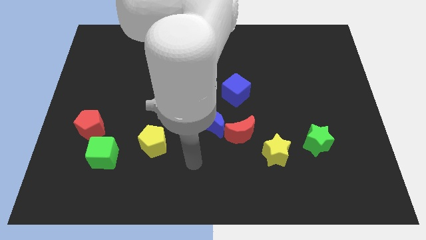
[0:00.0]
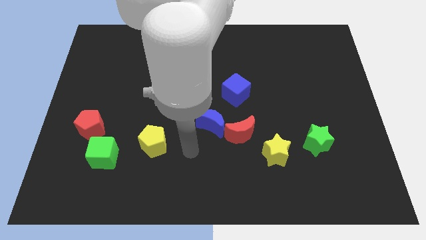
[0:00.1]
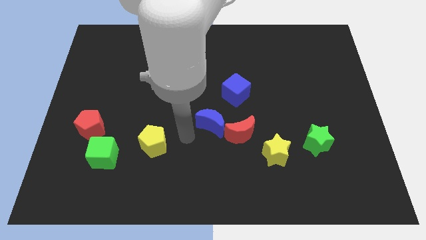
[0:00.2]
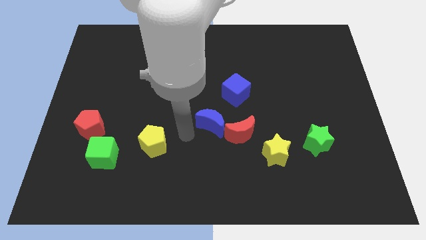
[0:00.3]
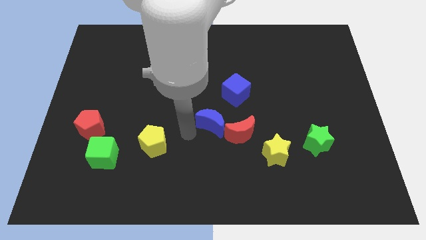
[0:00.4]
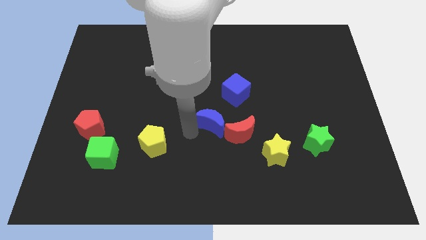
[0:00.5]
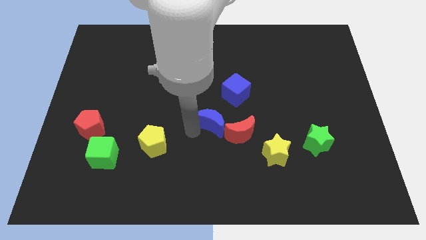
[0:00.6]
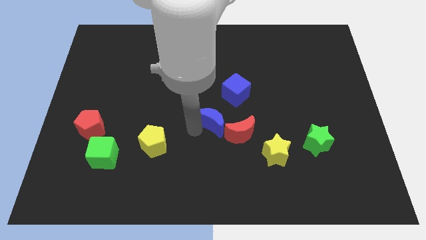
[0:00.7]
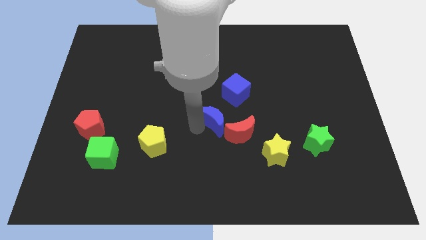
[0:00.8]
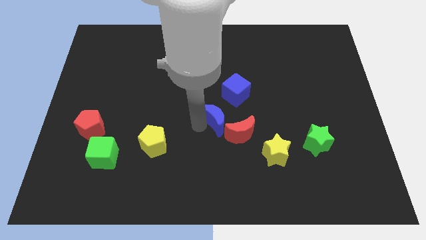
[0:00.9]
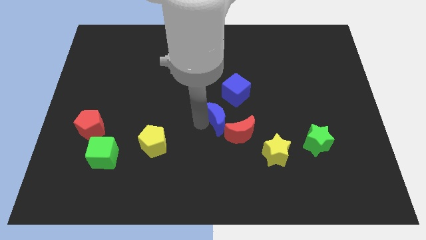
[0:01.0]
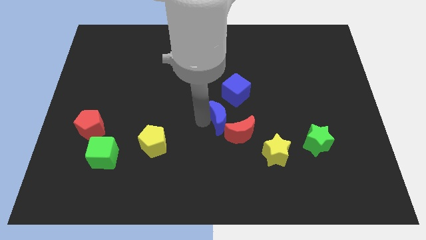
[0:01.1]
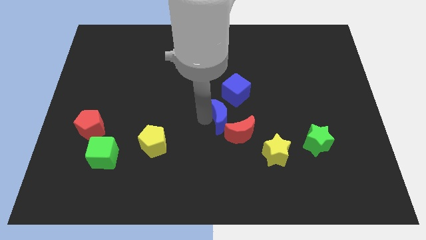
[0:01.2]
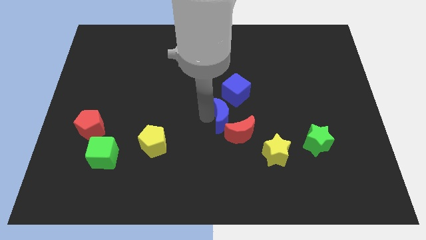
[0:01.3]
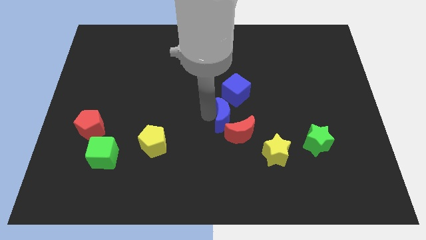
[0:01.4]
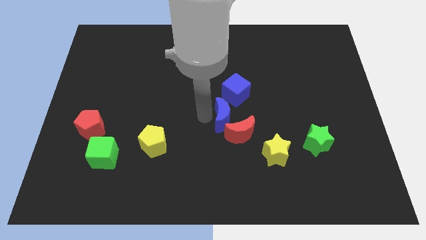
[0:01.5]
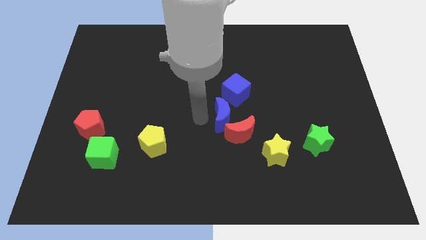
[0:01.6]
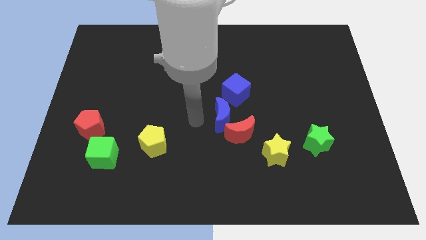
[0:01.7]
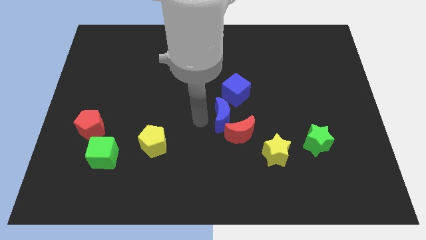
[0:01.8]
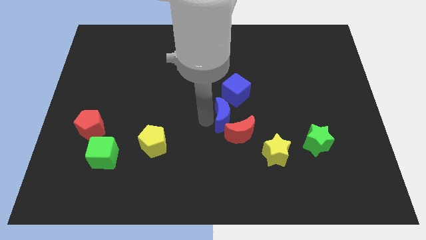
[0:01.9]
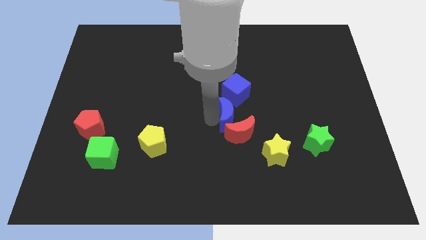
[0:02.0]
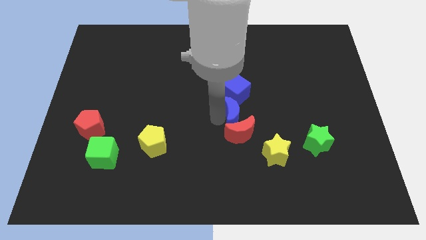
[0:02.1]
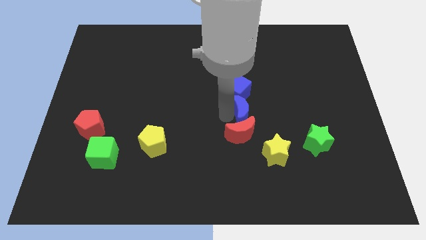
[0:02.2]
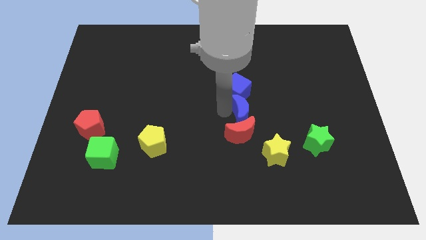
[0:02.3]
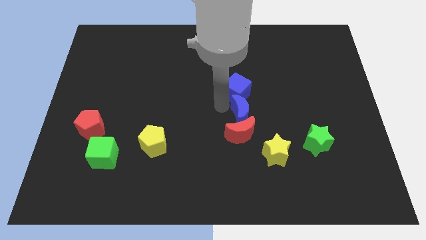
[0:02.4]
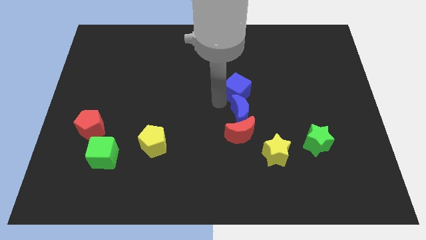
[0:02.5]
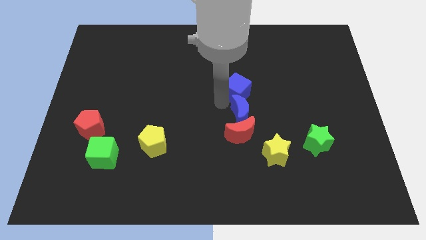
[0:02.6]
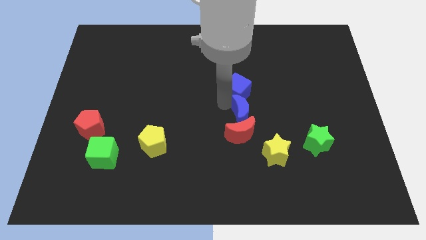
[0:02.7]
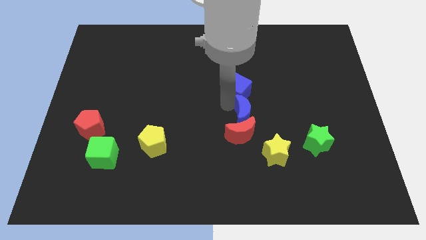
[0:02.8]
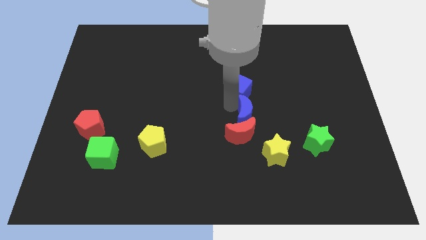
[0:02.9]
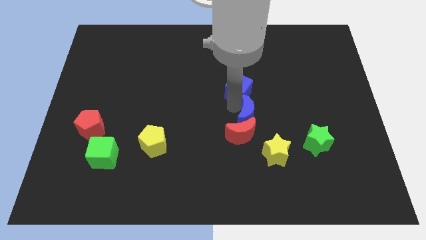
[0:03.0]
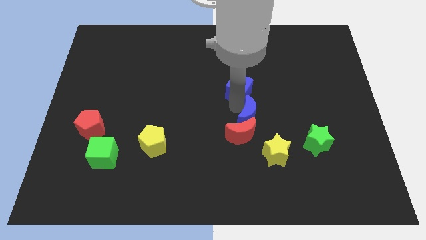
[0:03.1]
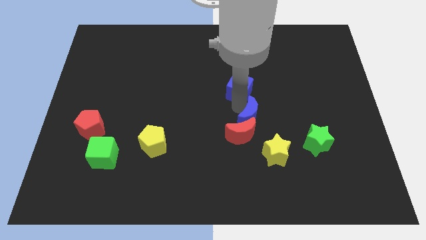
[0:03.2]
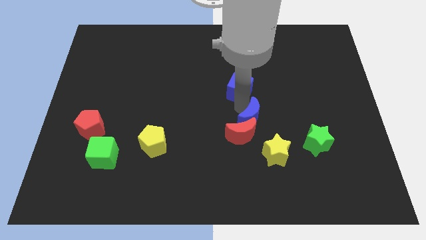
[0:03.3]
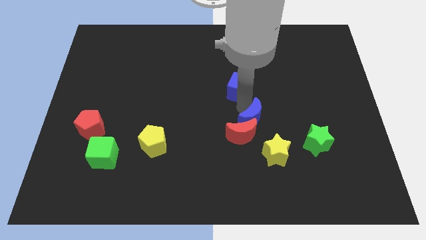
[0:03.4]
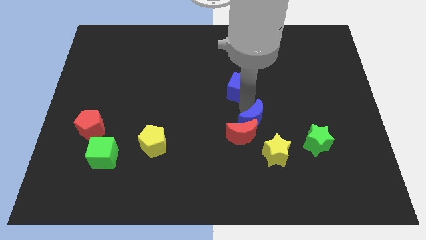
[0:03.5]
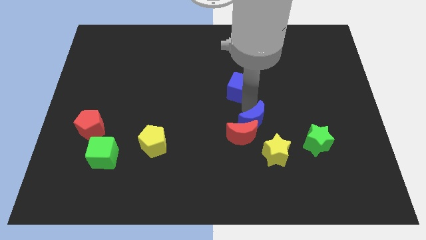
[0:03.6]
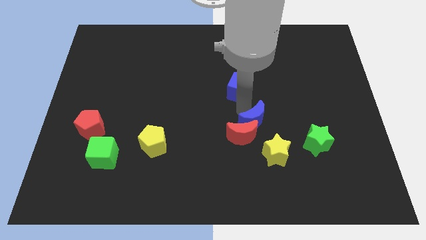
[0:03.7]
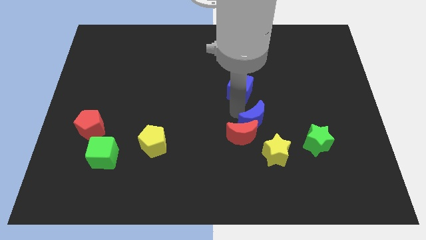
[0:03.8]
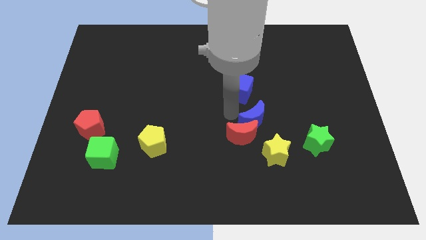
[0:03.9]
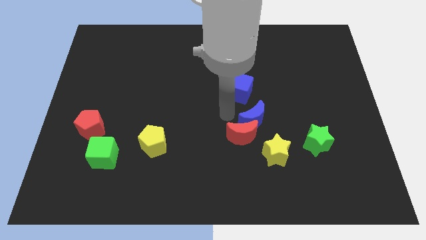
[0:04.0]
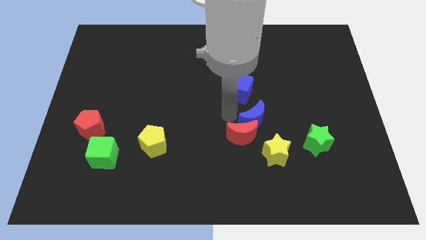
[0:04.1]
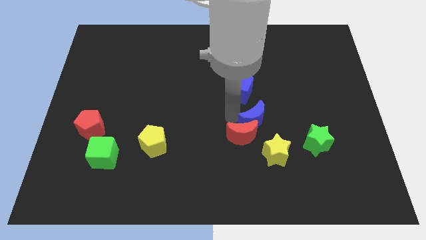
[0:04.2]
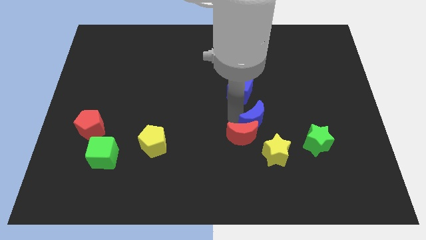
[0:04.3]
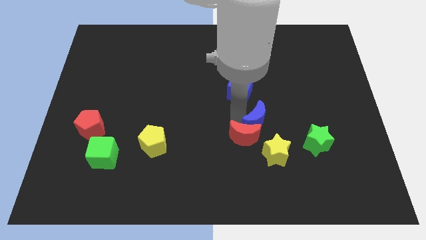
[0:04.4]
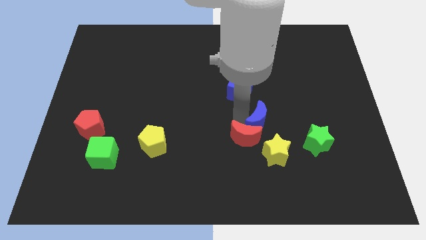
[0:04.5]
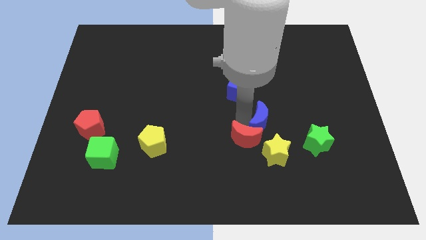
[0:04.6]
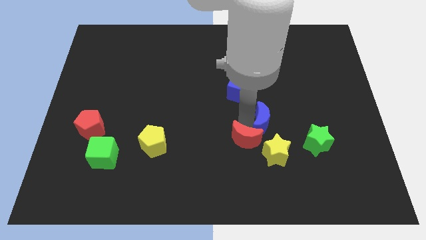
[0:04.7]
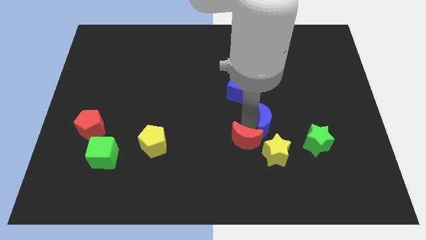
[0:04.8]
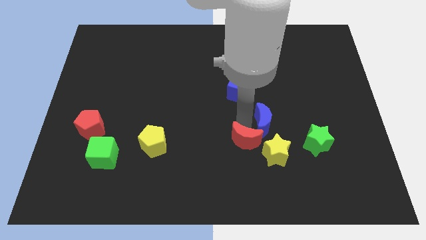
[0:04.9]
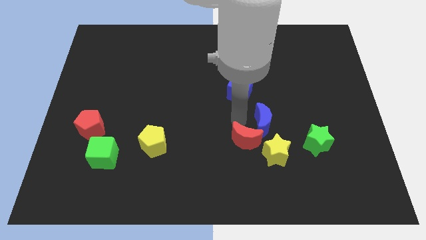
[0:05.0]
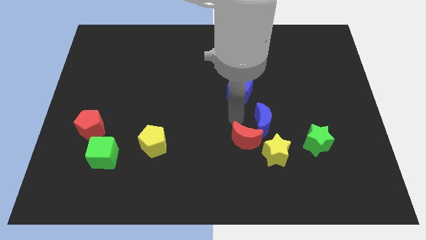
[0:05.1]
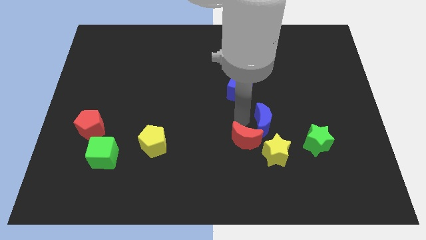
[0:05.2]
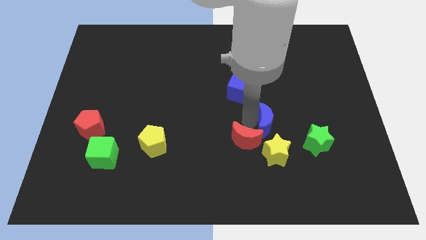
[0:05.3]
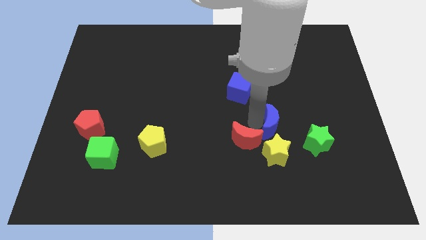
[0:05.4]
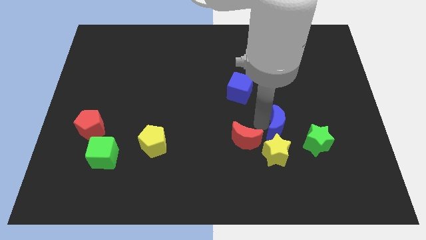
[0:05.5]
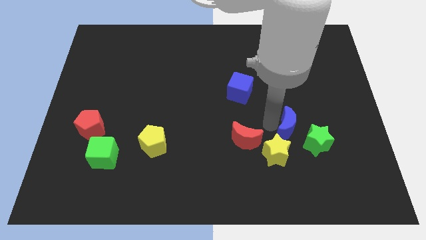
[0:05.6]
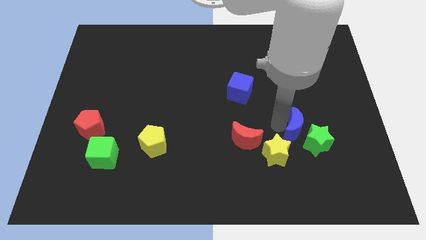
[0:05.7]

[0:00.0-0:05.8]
put the blue moon to the green star

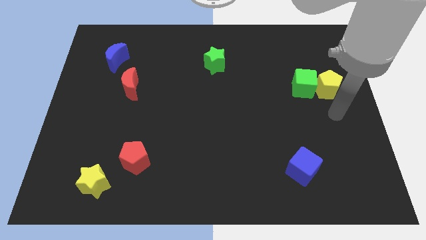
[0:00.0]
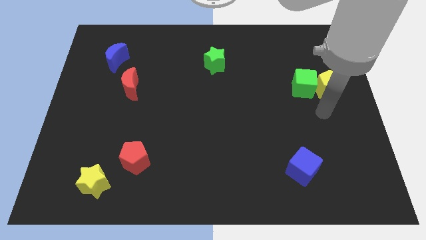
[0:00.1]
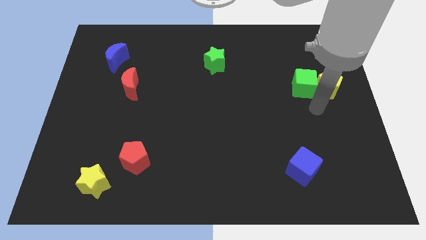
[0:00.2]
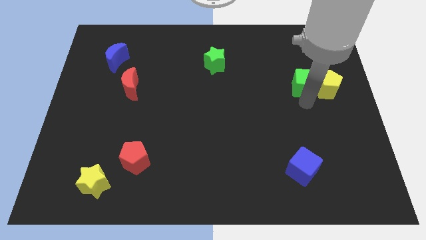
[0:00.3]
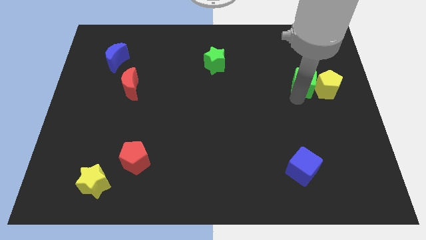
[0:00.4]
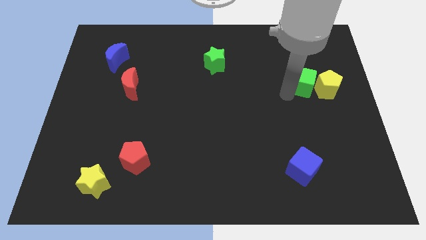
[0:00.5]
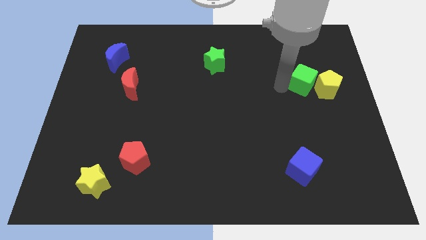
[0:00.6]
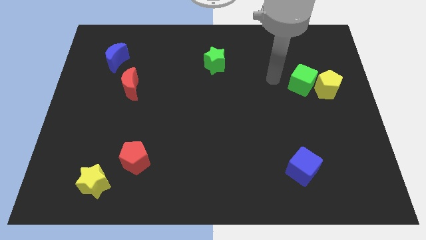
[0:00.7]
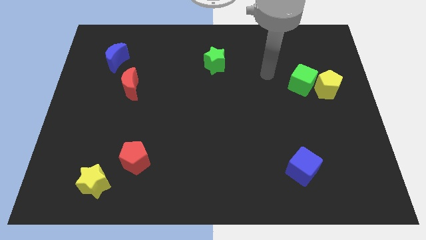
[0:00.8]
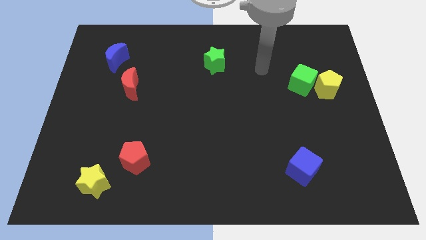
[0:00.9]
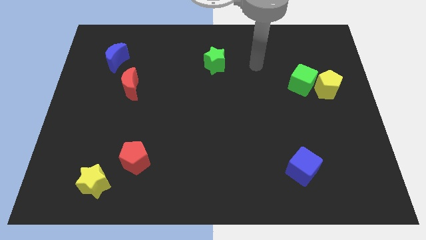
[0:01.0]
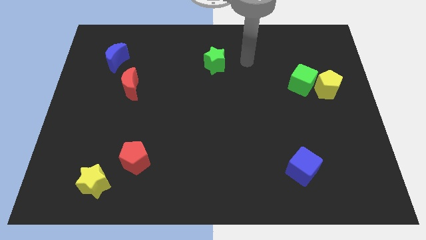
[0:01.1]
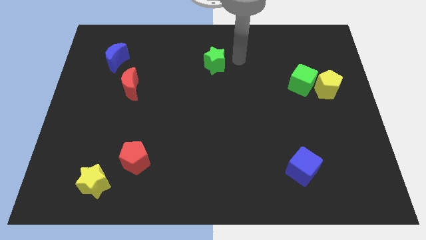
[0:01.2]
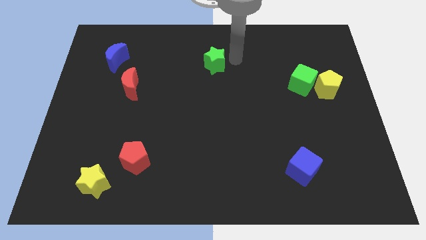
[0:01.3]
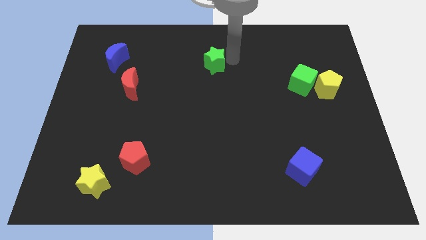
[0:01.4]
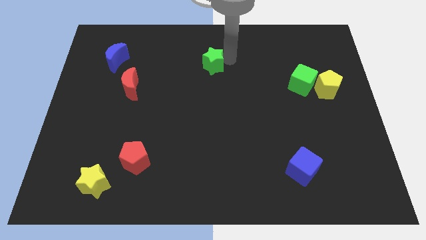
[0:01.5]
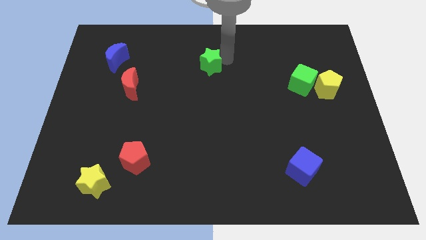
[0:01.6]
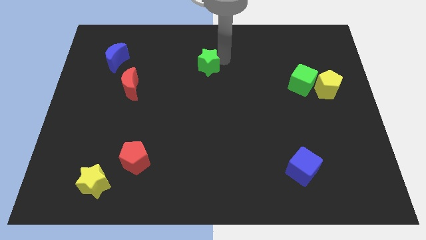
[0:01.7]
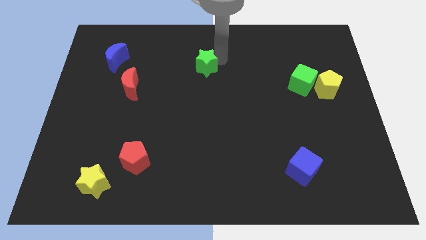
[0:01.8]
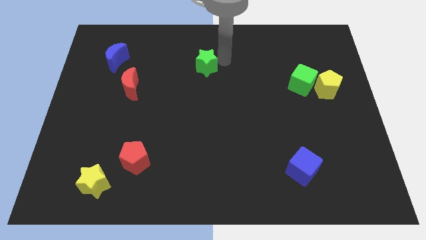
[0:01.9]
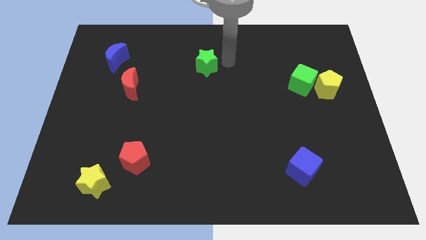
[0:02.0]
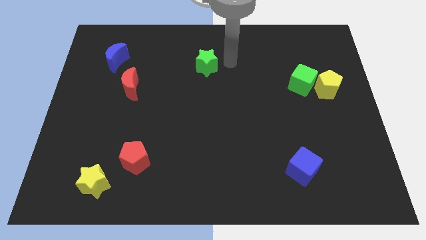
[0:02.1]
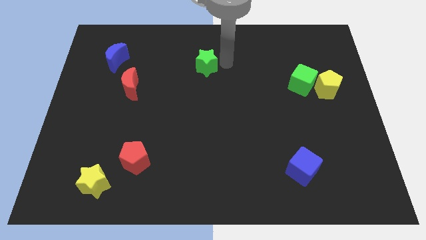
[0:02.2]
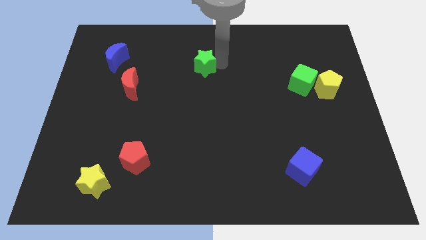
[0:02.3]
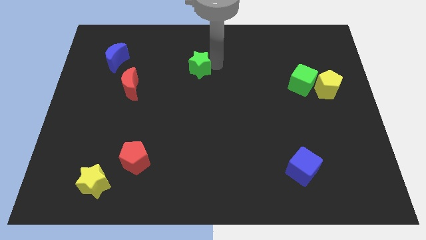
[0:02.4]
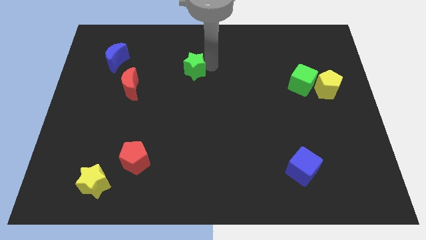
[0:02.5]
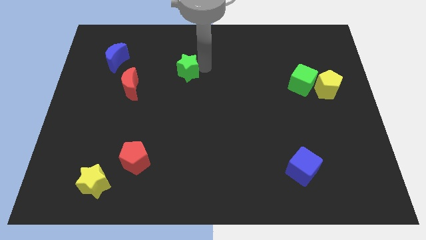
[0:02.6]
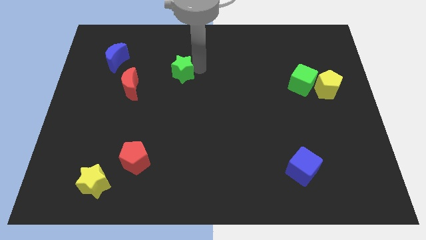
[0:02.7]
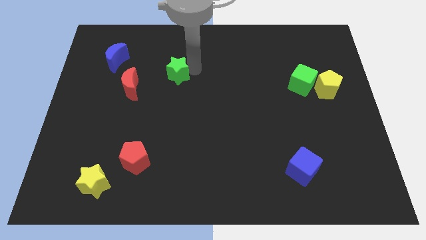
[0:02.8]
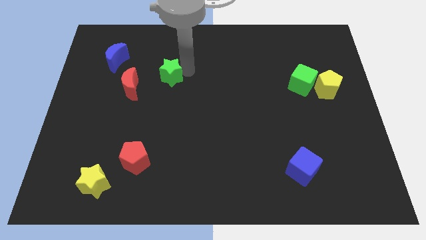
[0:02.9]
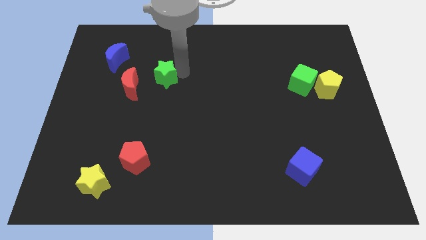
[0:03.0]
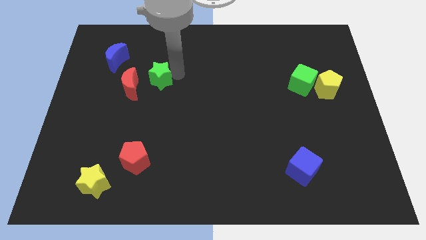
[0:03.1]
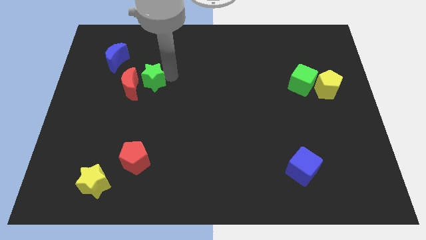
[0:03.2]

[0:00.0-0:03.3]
push the green star next to the red moon
